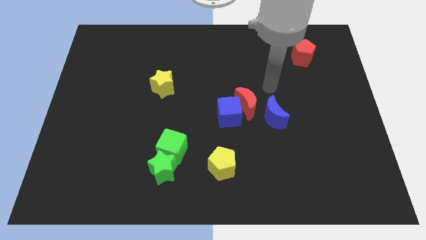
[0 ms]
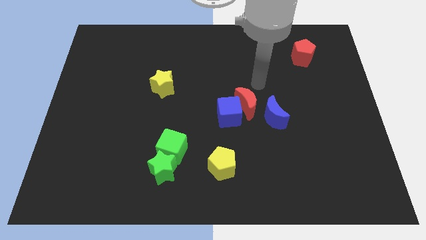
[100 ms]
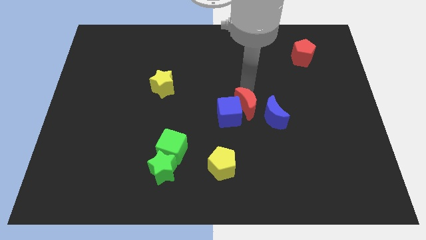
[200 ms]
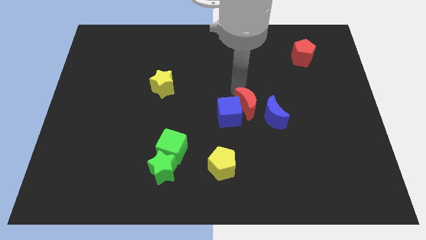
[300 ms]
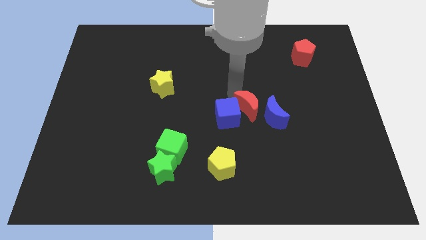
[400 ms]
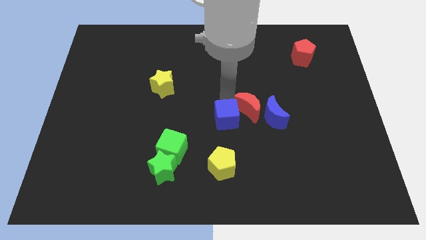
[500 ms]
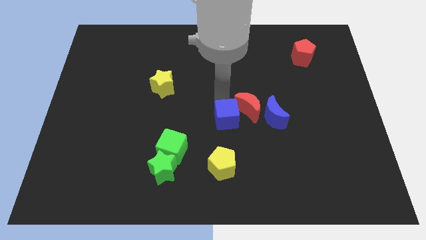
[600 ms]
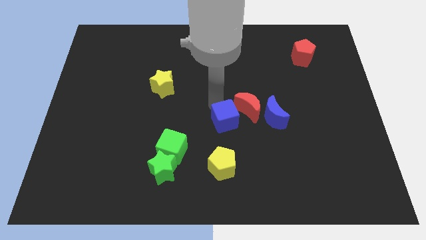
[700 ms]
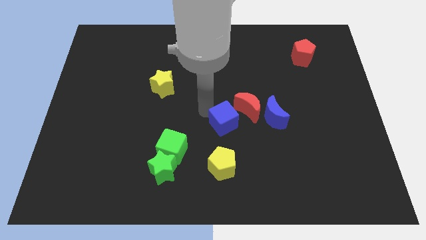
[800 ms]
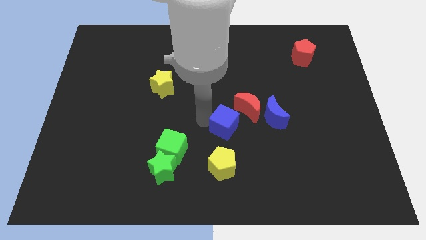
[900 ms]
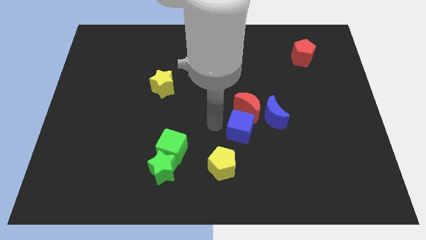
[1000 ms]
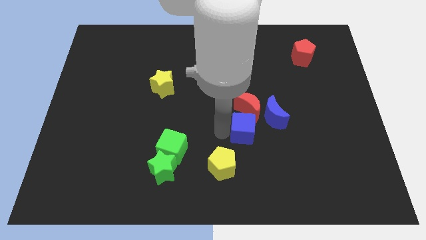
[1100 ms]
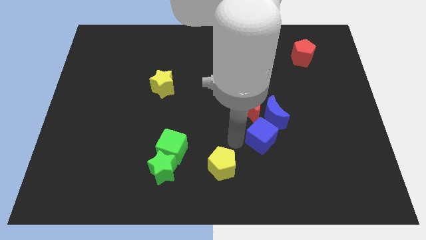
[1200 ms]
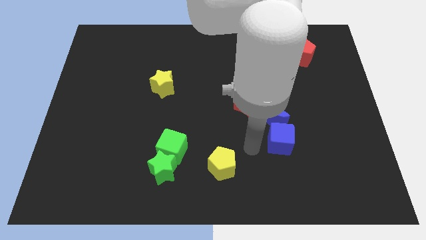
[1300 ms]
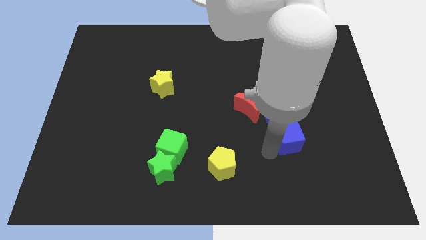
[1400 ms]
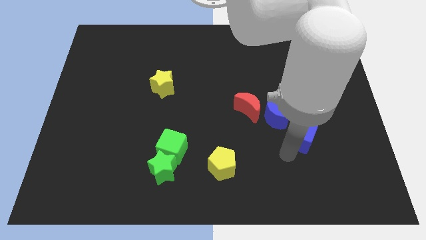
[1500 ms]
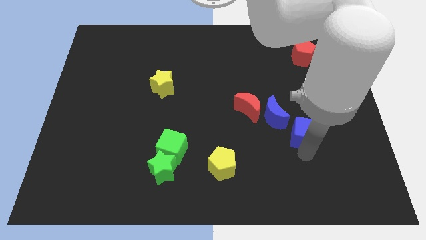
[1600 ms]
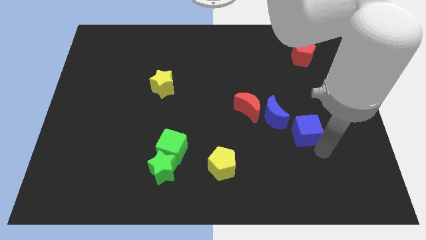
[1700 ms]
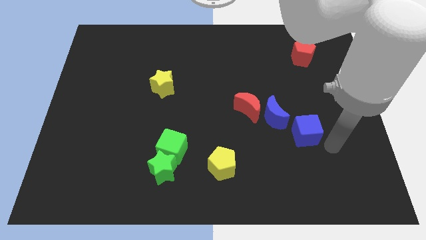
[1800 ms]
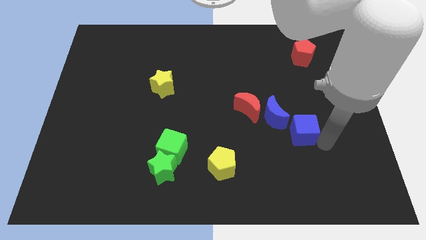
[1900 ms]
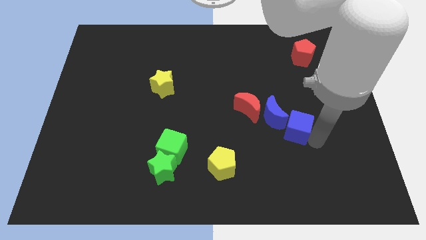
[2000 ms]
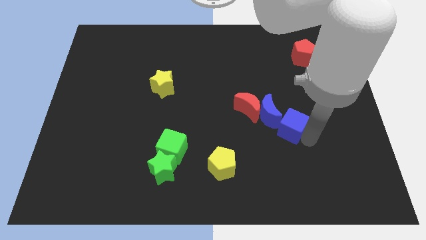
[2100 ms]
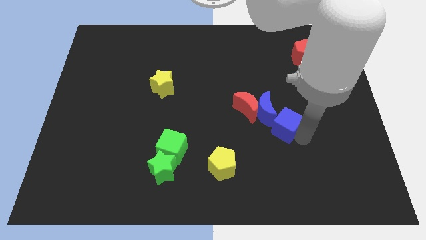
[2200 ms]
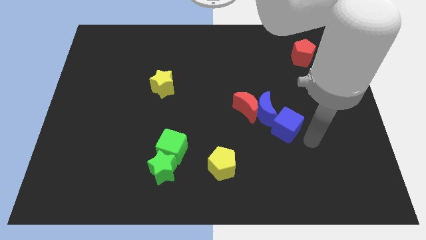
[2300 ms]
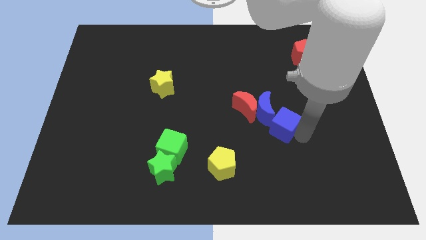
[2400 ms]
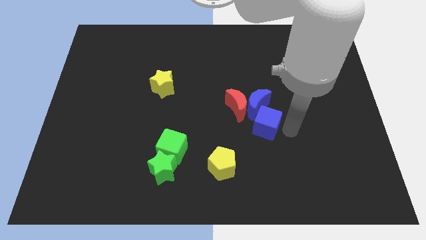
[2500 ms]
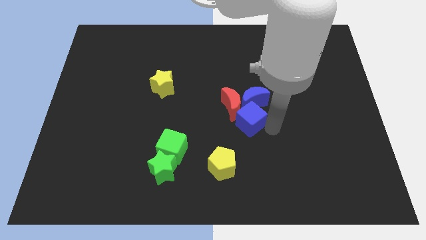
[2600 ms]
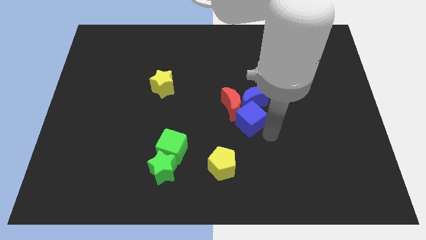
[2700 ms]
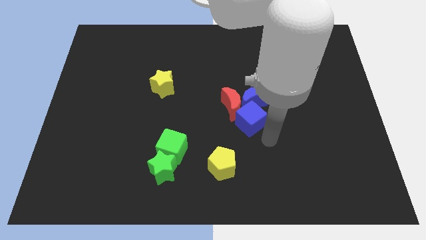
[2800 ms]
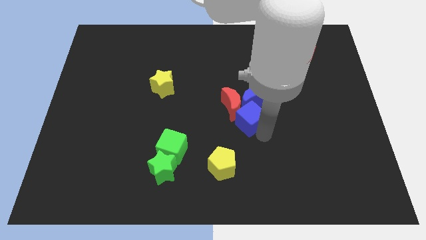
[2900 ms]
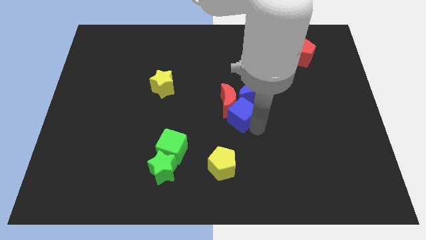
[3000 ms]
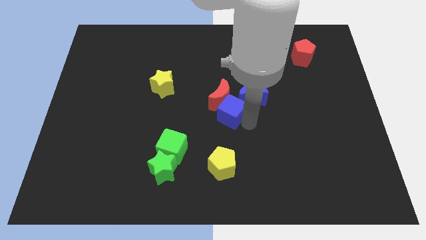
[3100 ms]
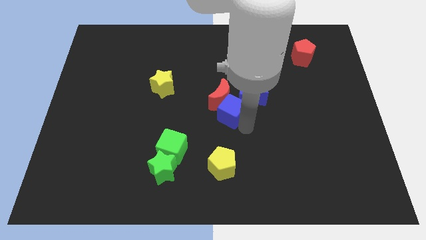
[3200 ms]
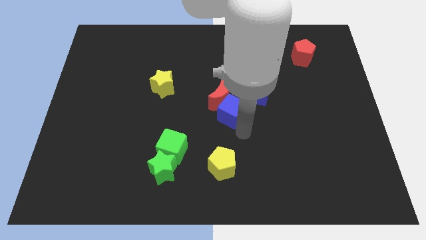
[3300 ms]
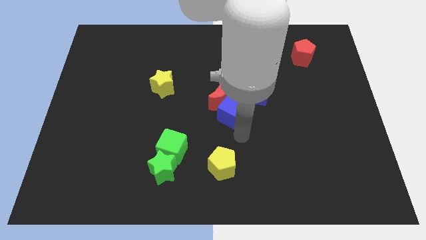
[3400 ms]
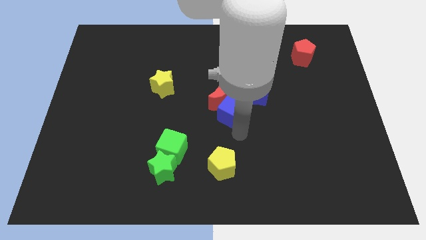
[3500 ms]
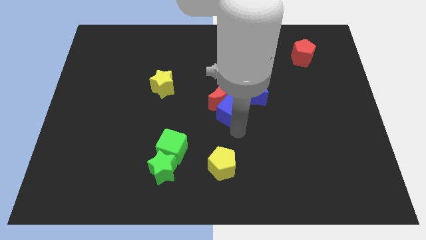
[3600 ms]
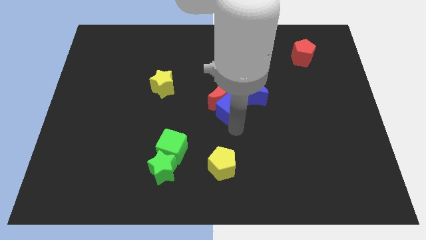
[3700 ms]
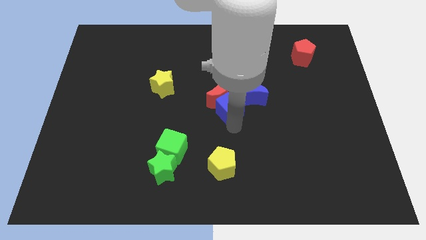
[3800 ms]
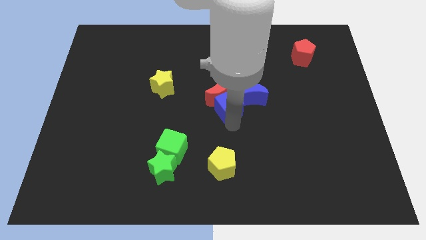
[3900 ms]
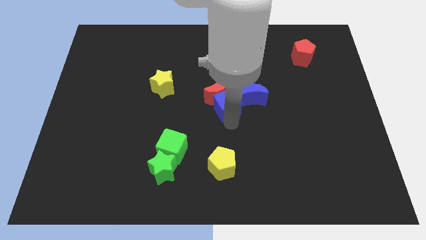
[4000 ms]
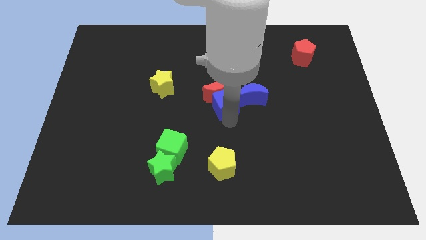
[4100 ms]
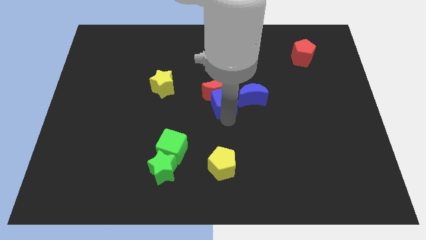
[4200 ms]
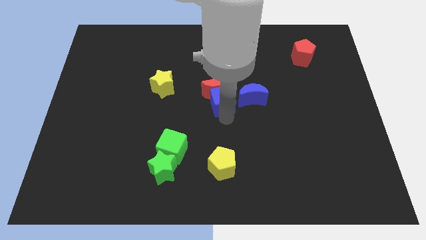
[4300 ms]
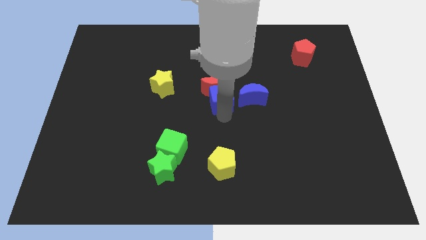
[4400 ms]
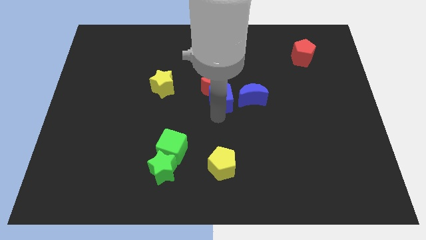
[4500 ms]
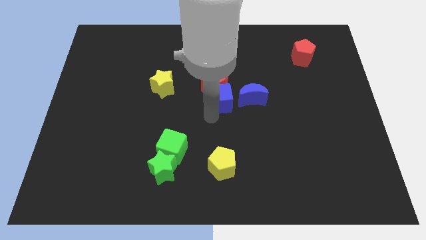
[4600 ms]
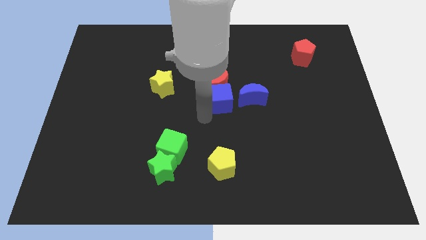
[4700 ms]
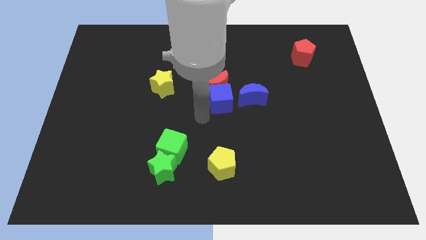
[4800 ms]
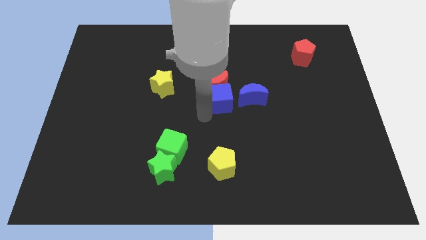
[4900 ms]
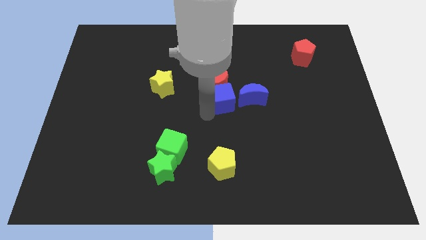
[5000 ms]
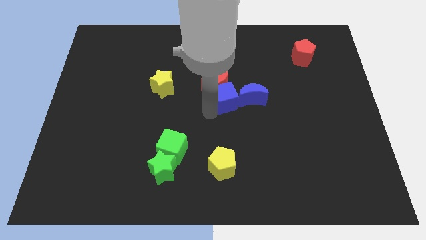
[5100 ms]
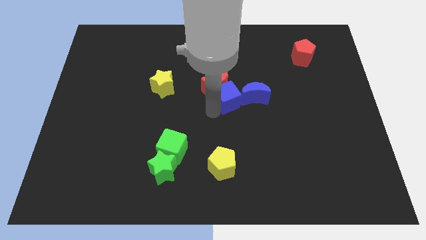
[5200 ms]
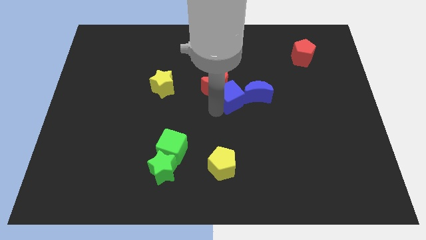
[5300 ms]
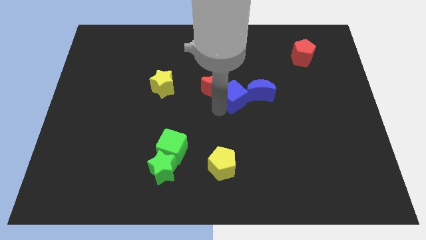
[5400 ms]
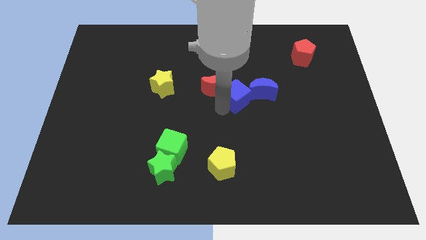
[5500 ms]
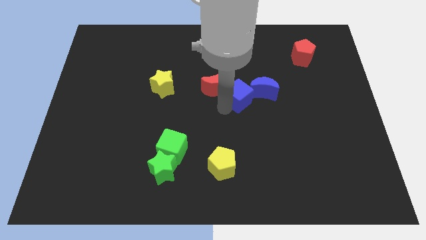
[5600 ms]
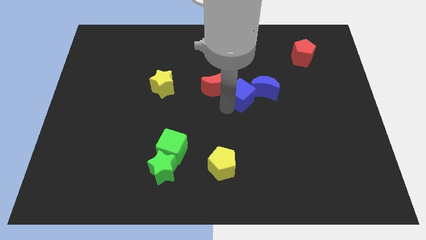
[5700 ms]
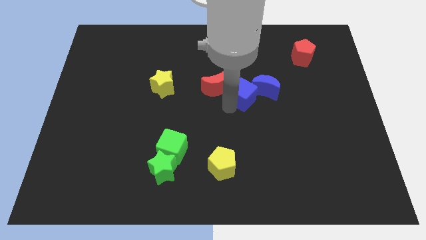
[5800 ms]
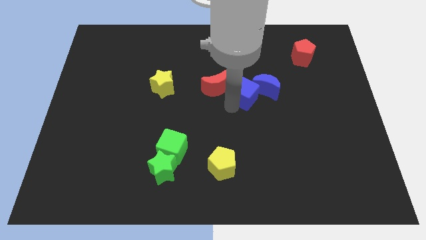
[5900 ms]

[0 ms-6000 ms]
push the blue cube a bit up and right diagonally

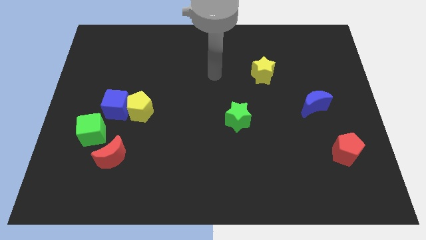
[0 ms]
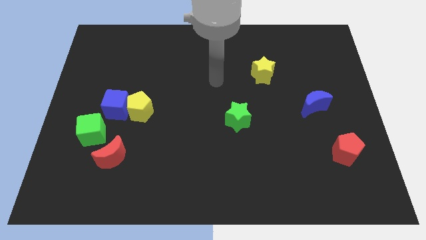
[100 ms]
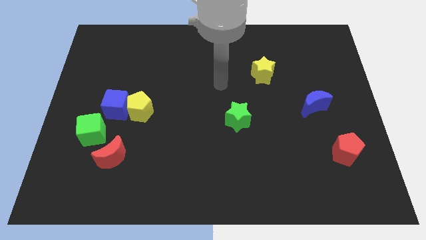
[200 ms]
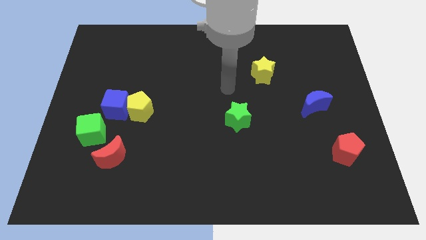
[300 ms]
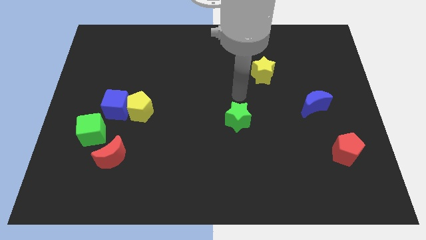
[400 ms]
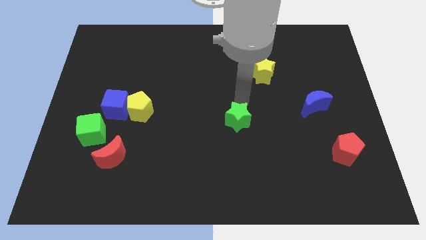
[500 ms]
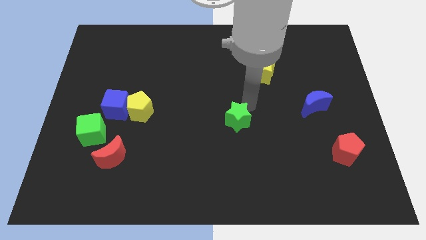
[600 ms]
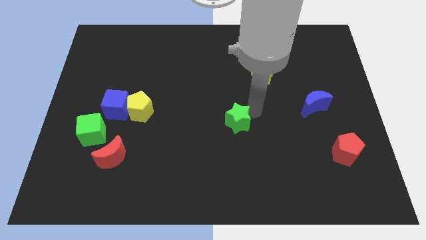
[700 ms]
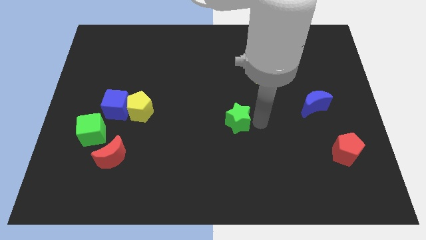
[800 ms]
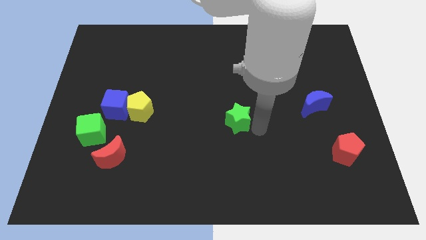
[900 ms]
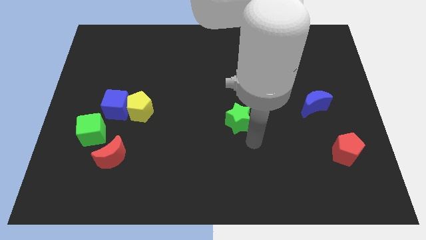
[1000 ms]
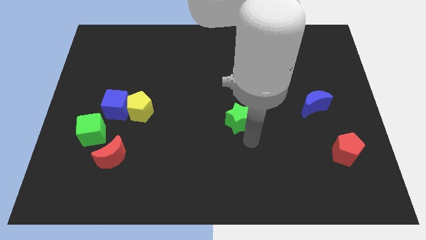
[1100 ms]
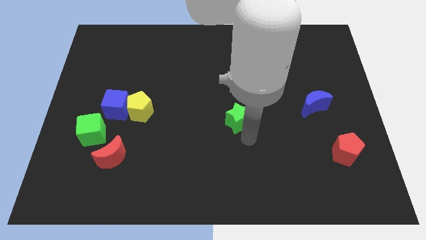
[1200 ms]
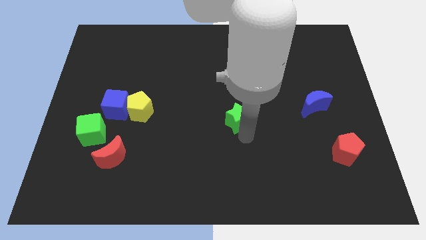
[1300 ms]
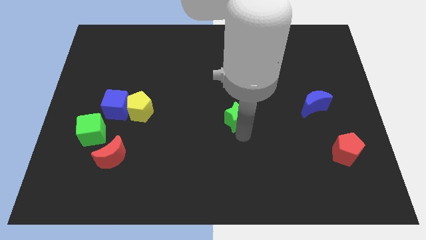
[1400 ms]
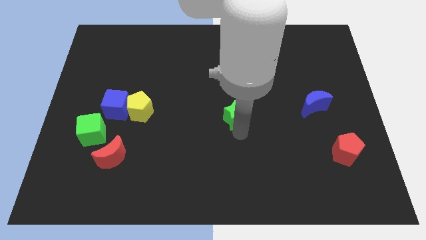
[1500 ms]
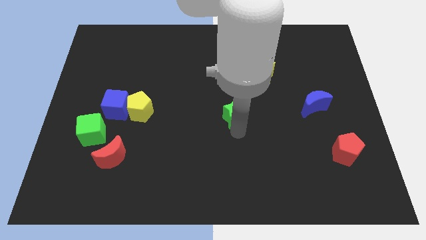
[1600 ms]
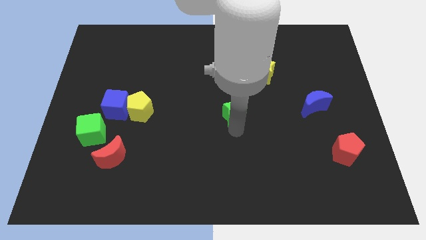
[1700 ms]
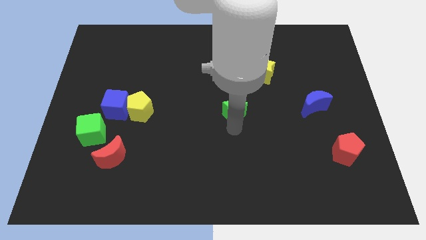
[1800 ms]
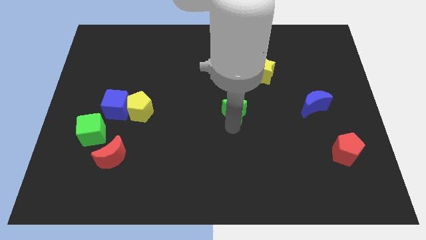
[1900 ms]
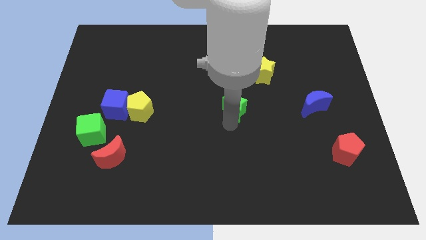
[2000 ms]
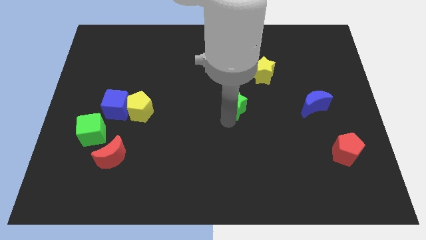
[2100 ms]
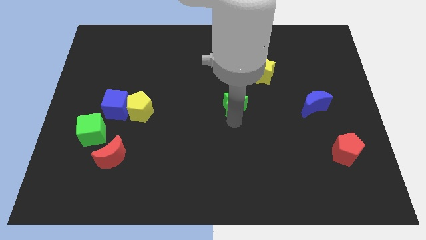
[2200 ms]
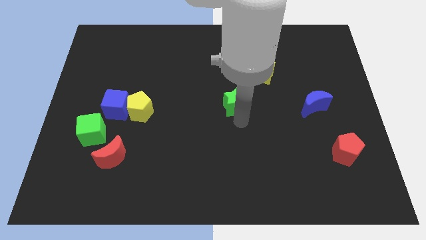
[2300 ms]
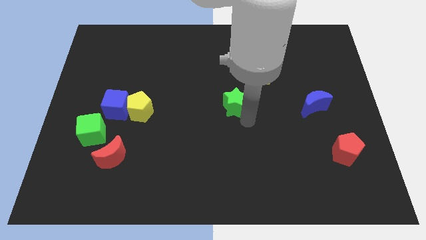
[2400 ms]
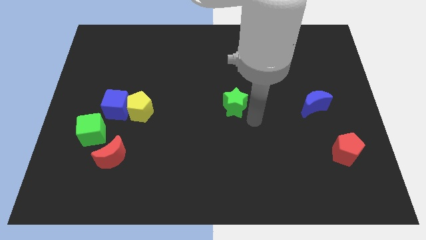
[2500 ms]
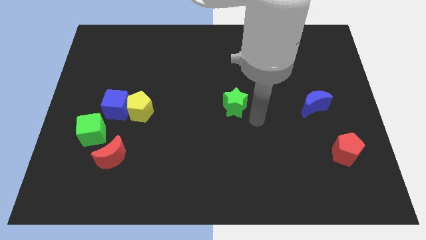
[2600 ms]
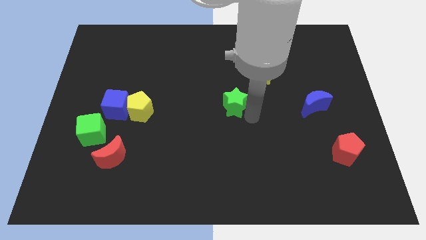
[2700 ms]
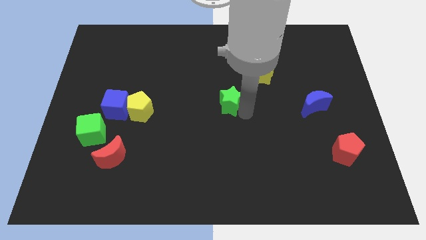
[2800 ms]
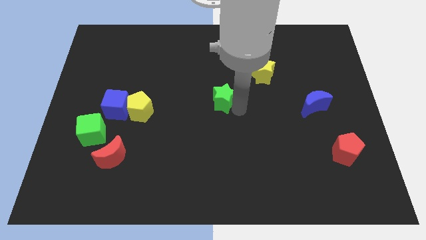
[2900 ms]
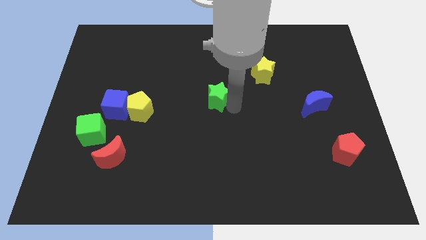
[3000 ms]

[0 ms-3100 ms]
slightly push the green star upwards and left
